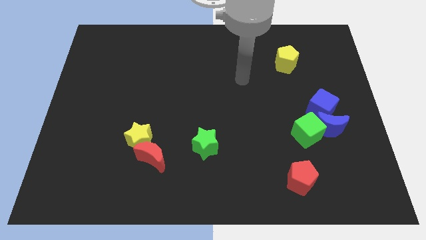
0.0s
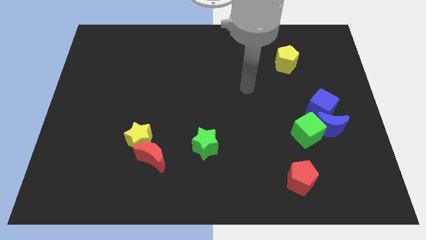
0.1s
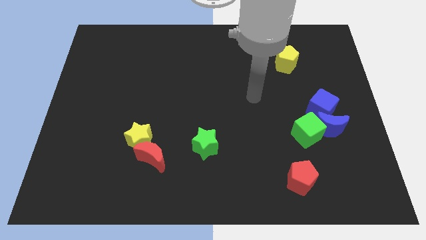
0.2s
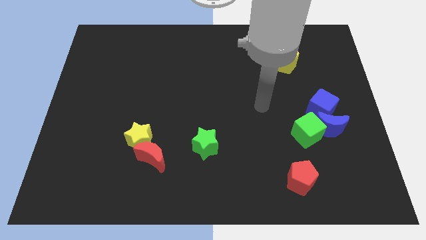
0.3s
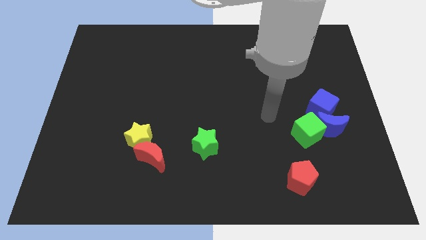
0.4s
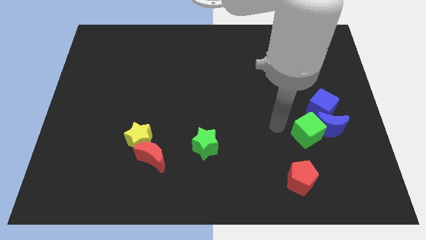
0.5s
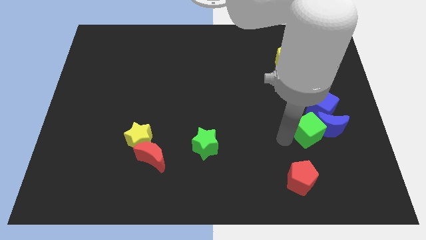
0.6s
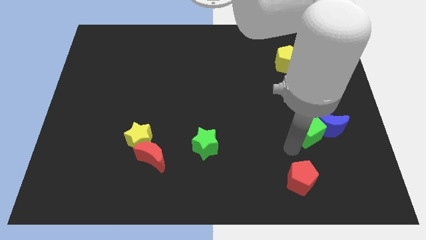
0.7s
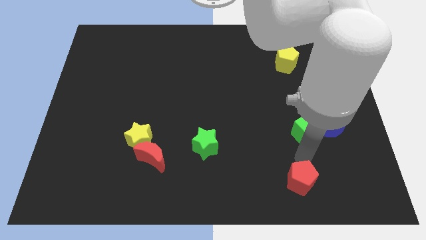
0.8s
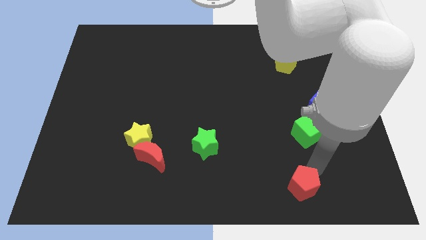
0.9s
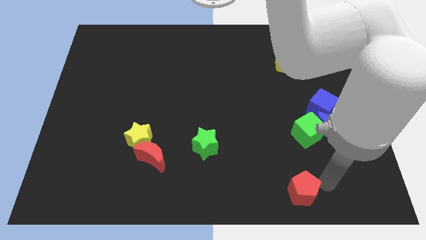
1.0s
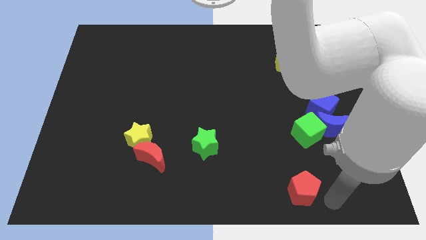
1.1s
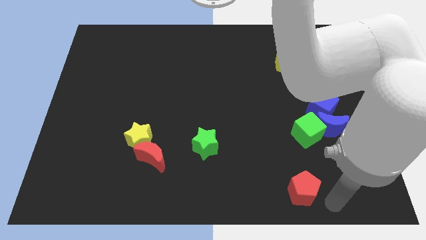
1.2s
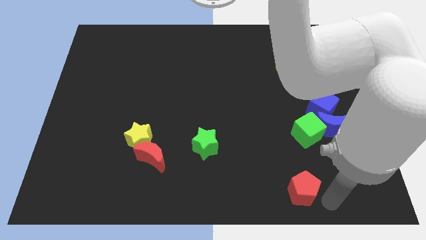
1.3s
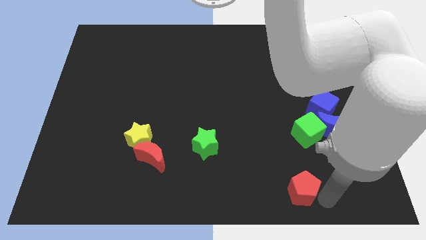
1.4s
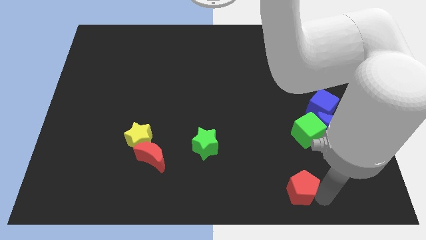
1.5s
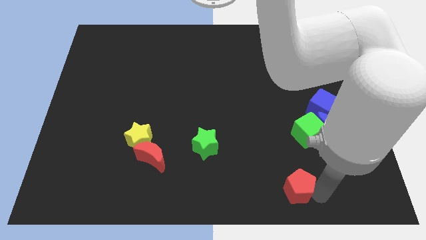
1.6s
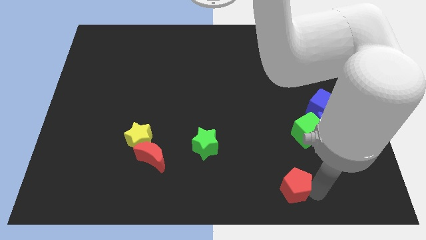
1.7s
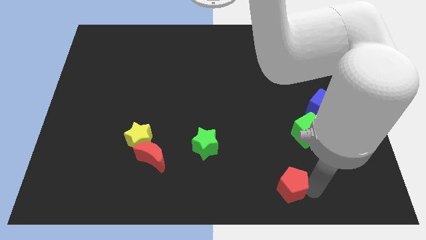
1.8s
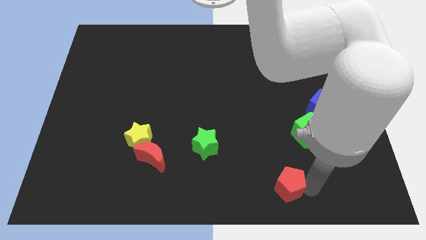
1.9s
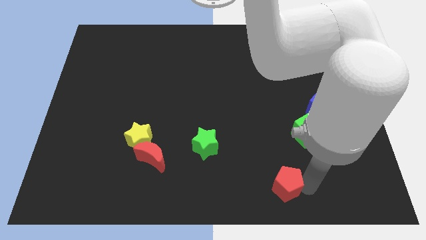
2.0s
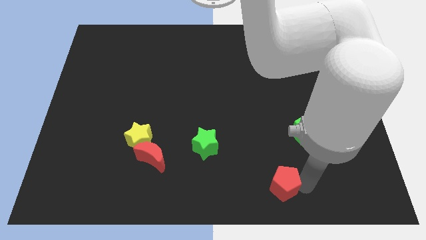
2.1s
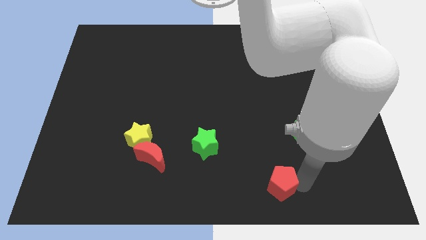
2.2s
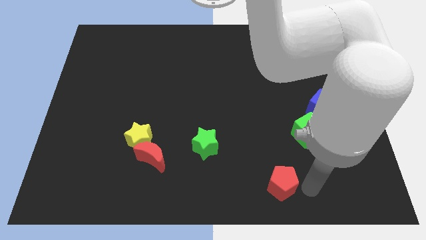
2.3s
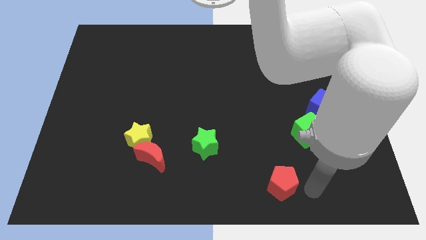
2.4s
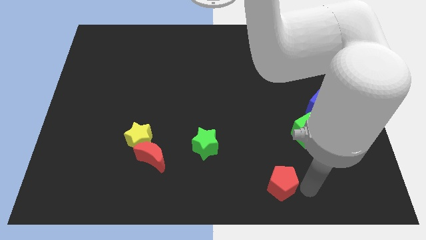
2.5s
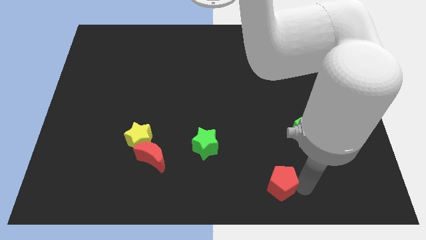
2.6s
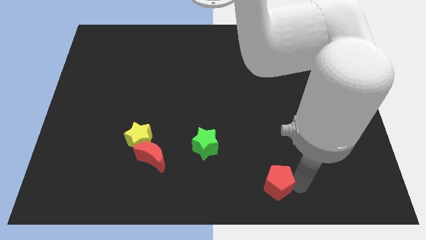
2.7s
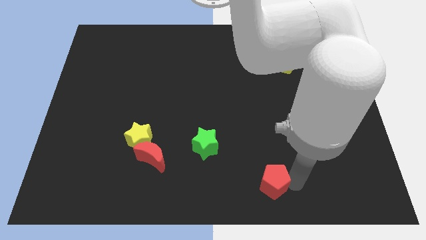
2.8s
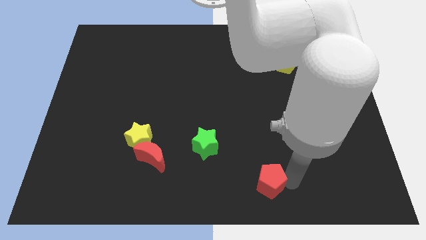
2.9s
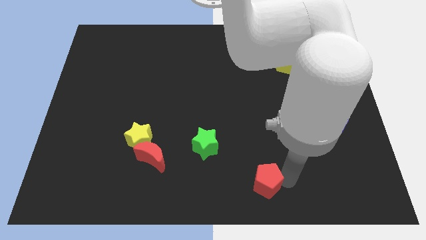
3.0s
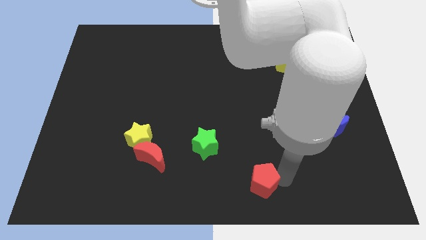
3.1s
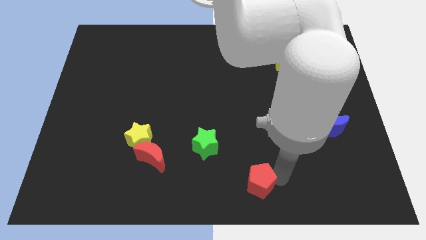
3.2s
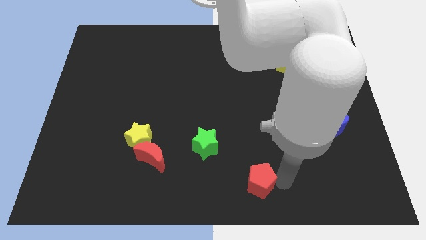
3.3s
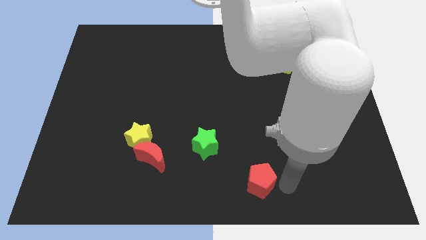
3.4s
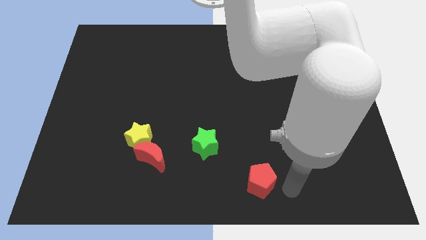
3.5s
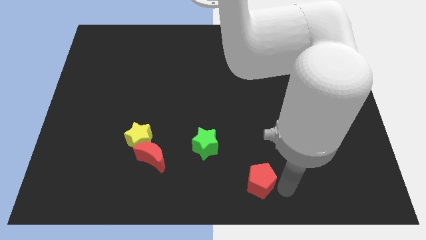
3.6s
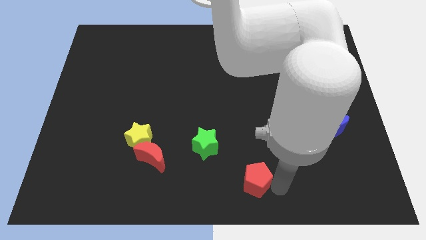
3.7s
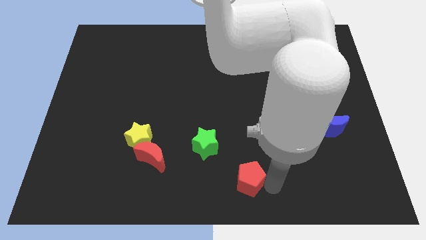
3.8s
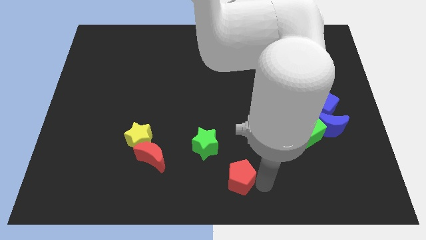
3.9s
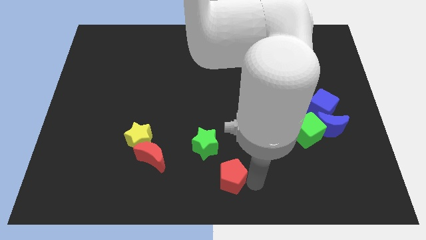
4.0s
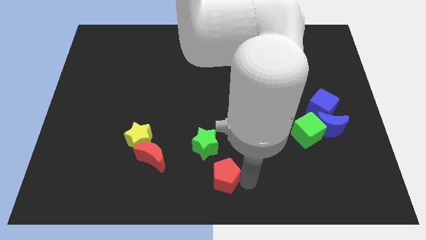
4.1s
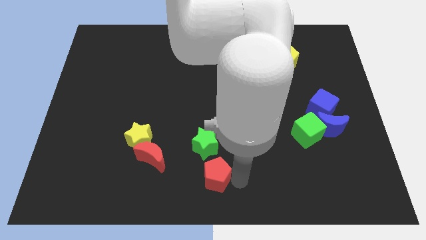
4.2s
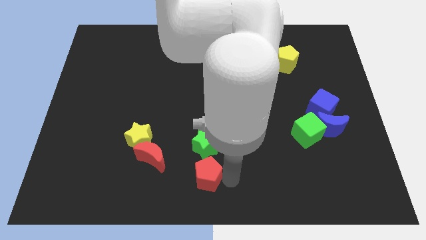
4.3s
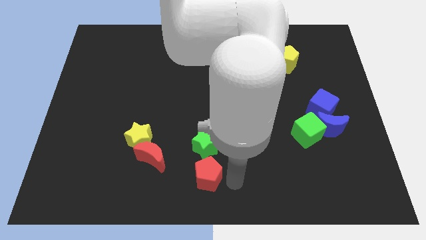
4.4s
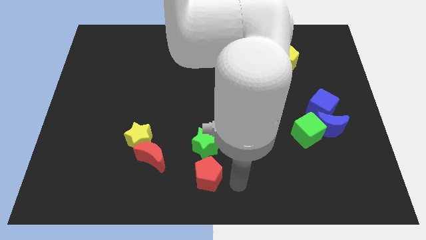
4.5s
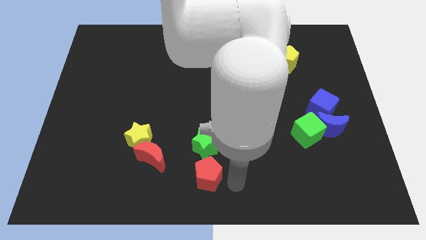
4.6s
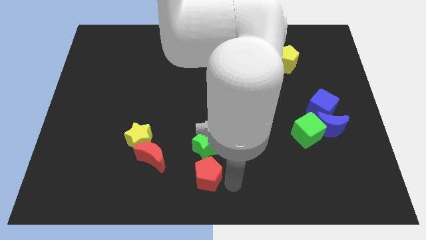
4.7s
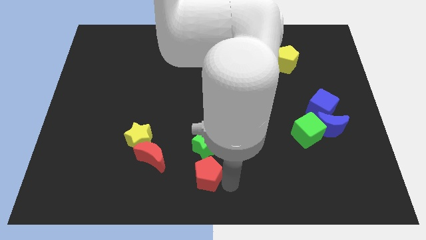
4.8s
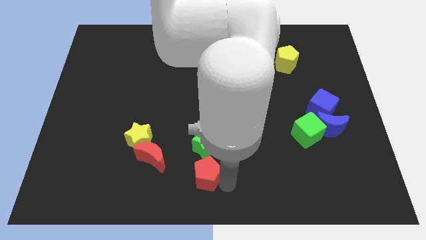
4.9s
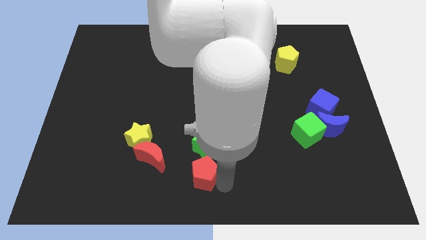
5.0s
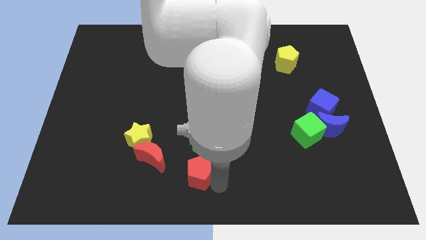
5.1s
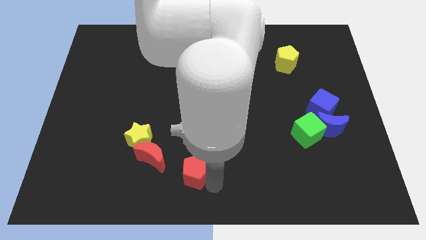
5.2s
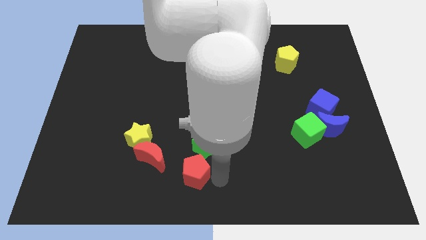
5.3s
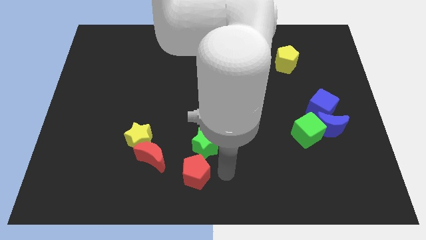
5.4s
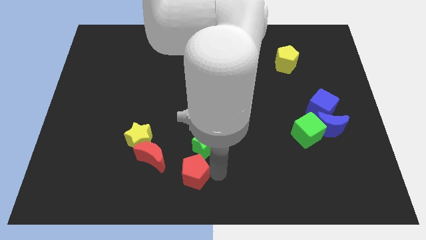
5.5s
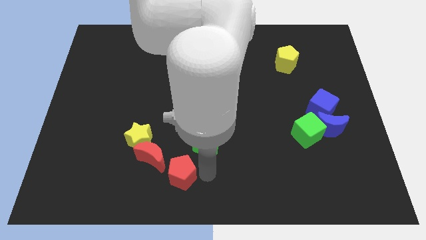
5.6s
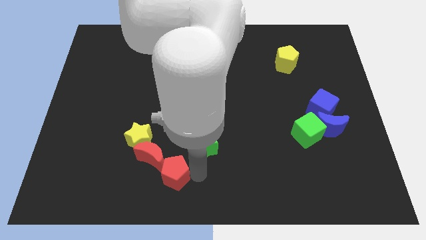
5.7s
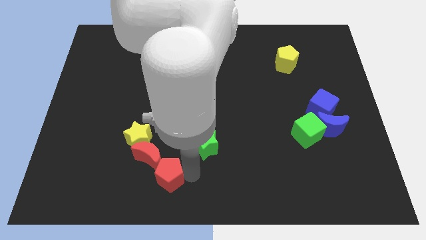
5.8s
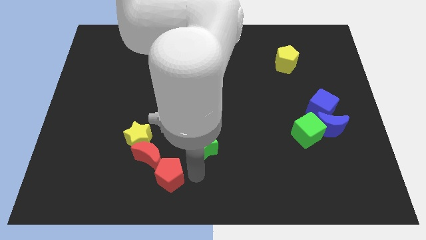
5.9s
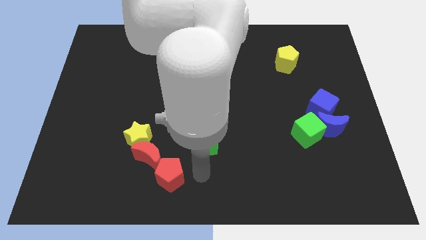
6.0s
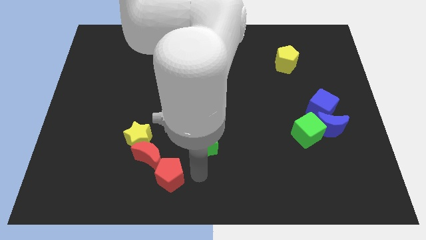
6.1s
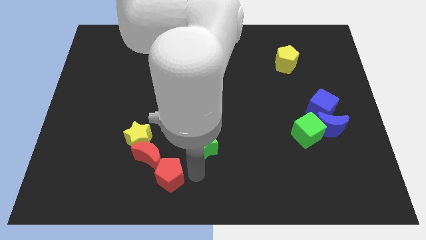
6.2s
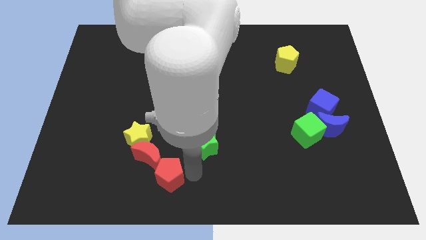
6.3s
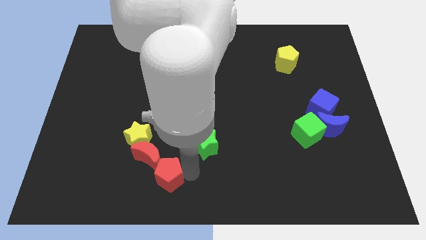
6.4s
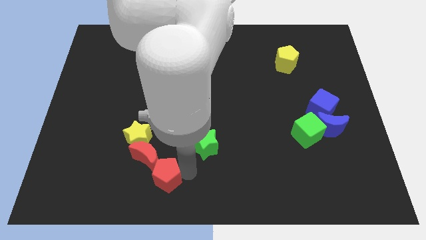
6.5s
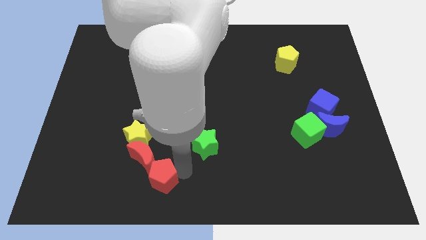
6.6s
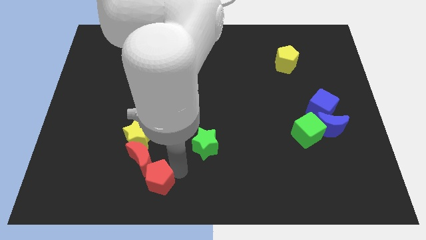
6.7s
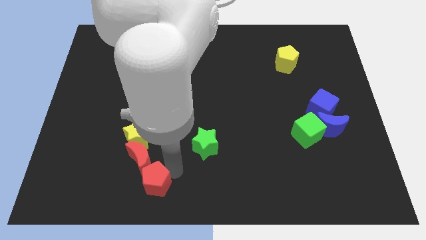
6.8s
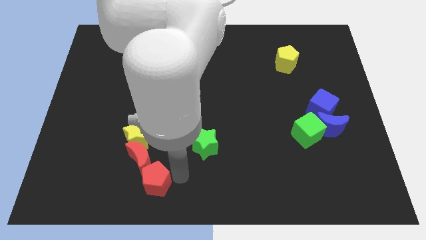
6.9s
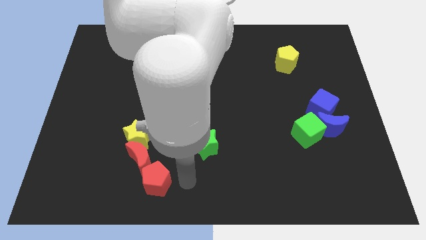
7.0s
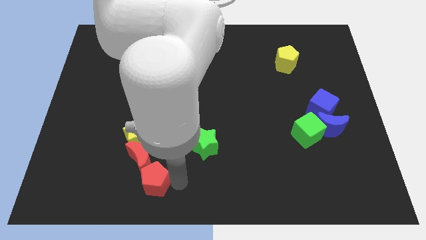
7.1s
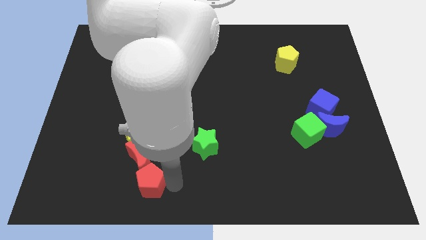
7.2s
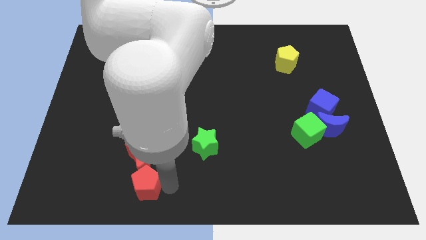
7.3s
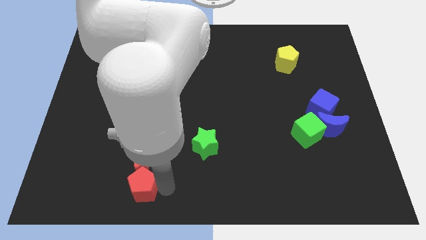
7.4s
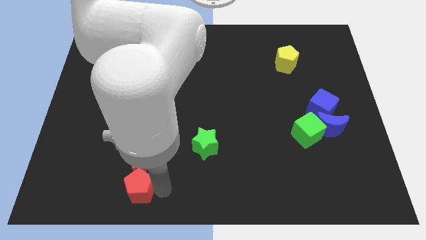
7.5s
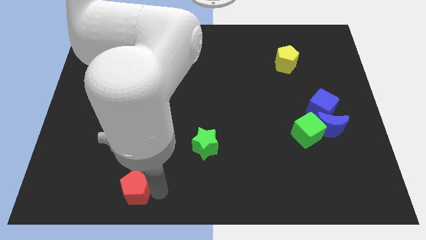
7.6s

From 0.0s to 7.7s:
put the red pentagon to the bottom left side of the red moon

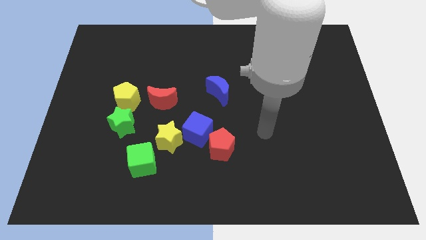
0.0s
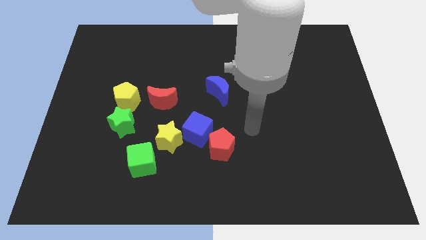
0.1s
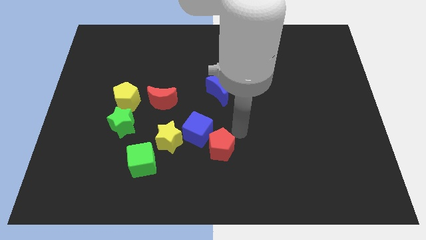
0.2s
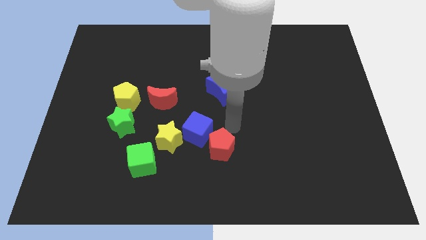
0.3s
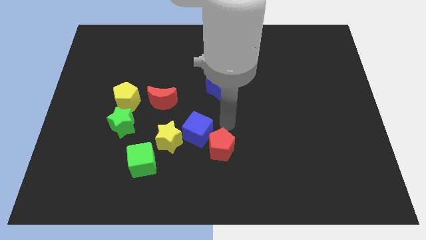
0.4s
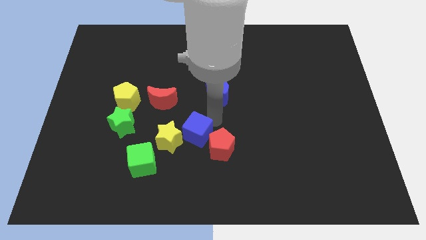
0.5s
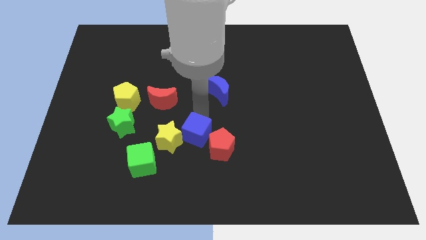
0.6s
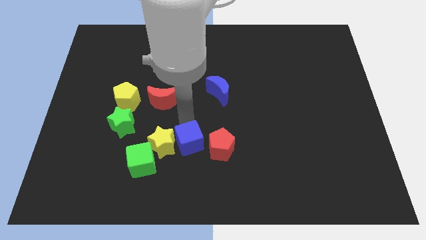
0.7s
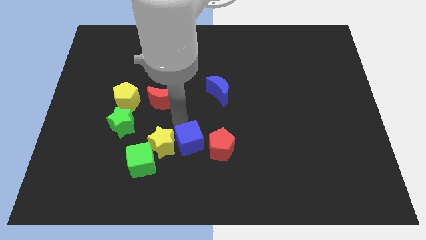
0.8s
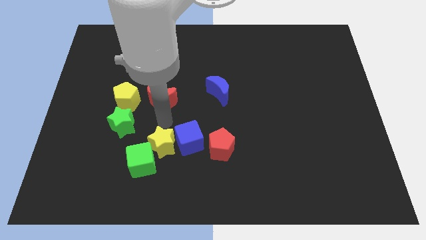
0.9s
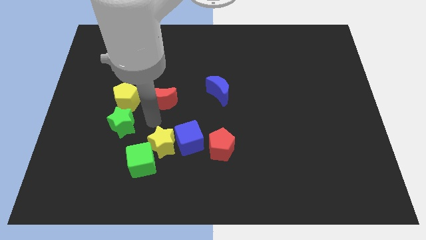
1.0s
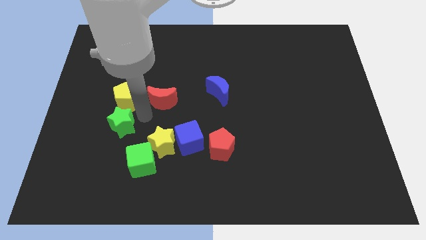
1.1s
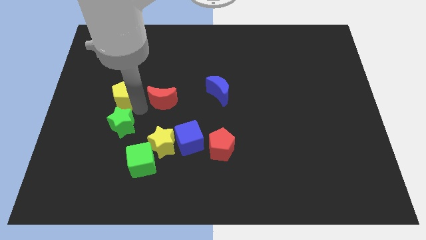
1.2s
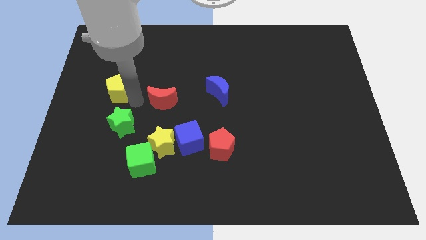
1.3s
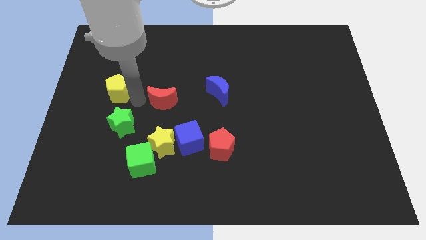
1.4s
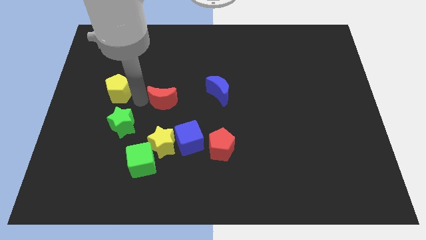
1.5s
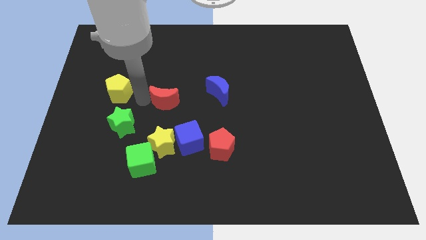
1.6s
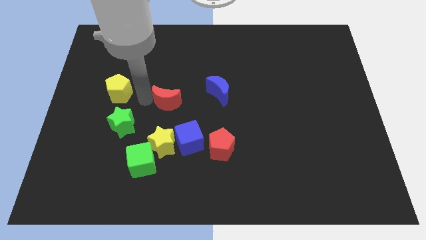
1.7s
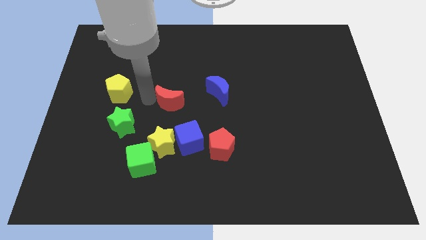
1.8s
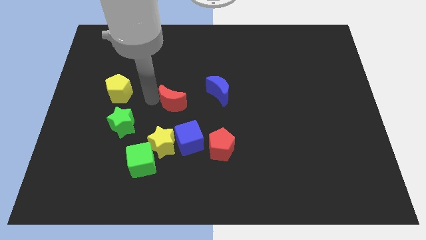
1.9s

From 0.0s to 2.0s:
put the red moon above the blue cube
